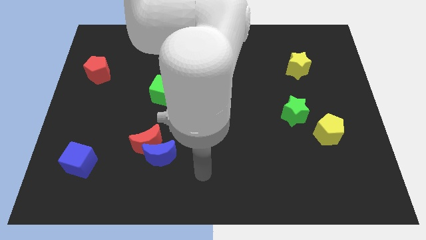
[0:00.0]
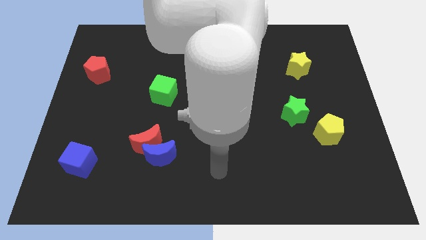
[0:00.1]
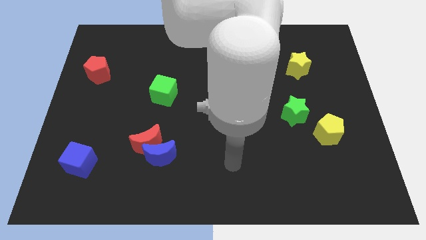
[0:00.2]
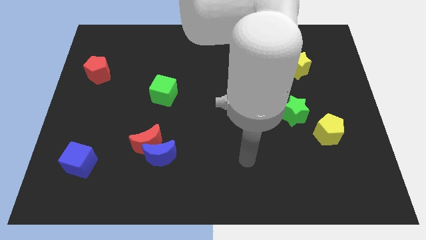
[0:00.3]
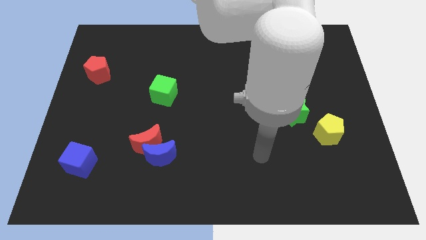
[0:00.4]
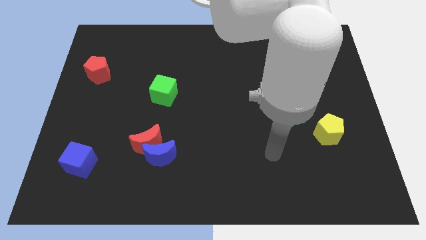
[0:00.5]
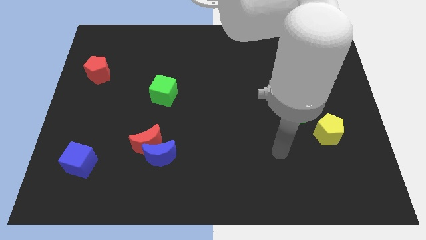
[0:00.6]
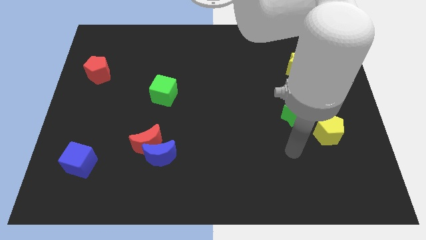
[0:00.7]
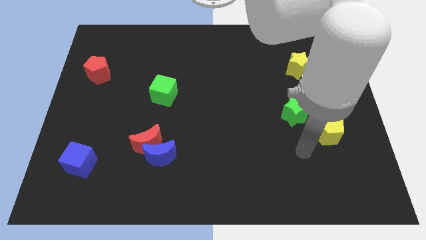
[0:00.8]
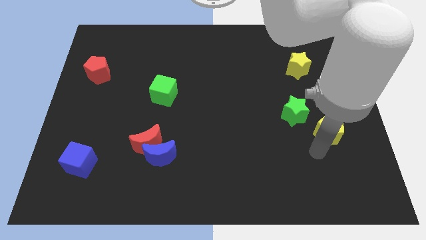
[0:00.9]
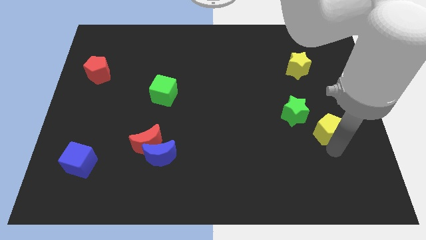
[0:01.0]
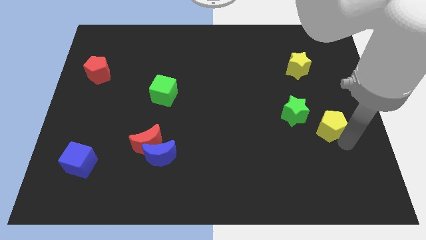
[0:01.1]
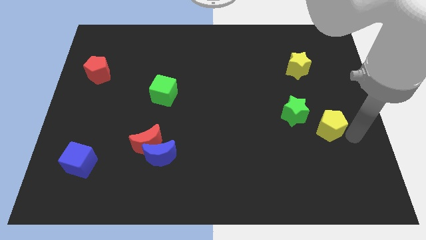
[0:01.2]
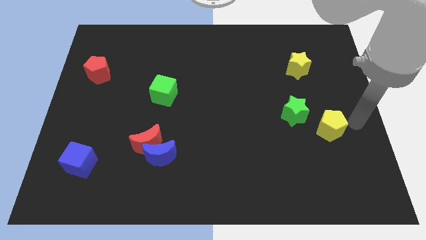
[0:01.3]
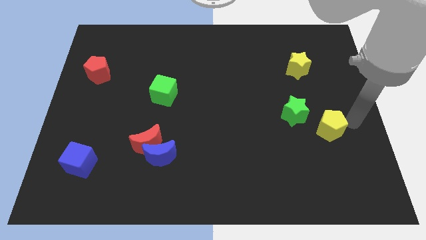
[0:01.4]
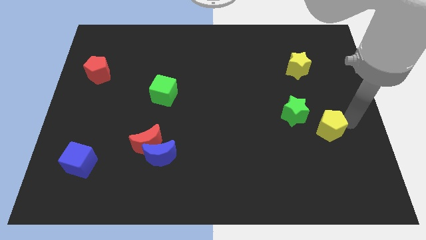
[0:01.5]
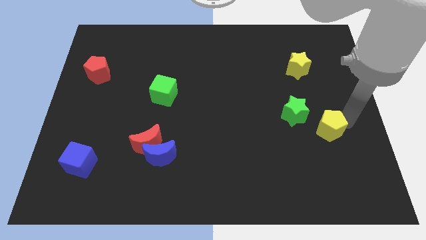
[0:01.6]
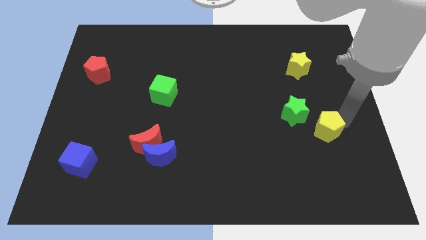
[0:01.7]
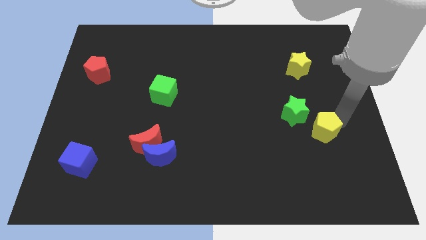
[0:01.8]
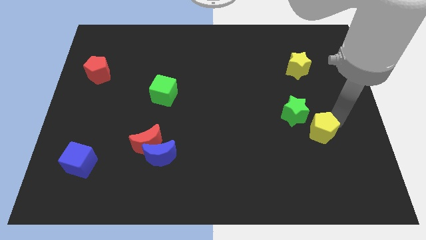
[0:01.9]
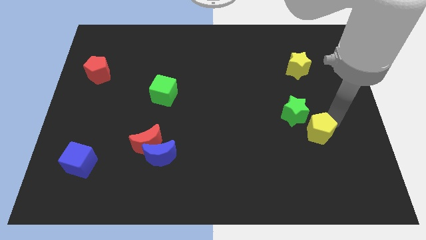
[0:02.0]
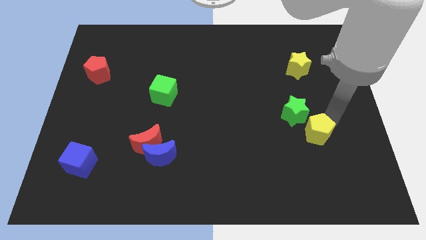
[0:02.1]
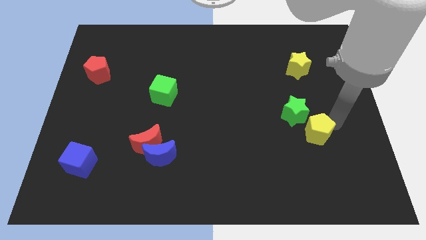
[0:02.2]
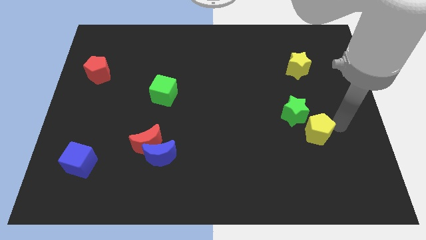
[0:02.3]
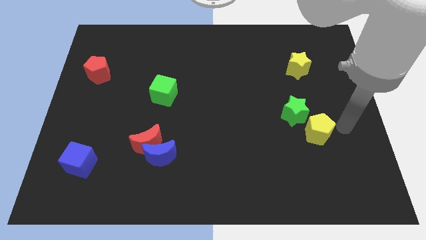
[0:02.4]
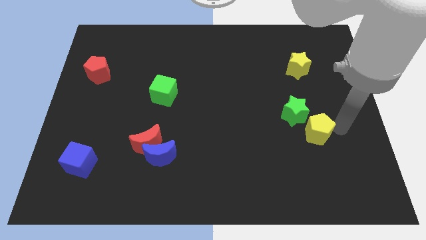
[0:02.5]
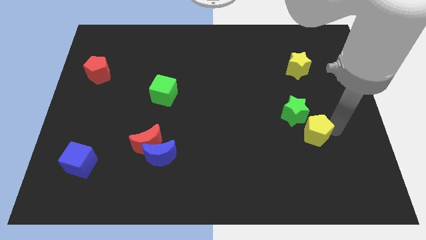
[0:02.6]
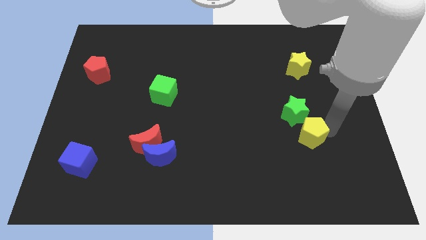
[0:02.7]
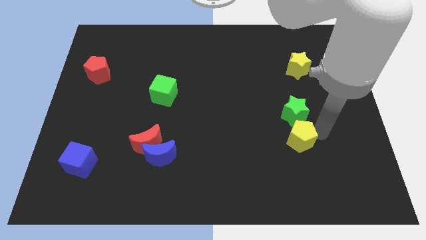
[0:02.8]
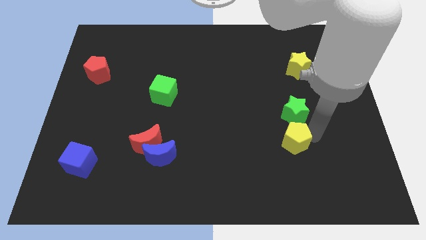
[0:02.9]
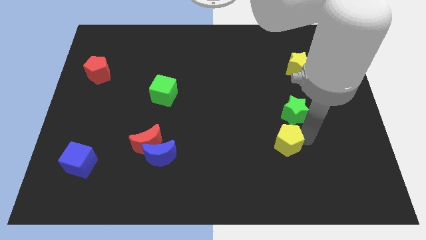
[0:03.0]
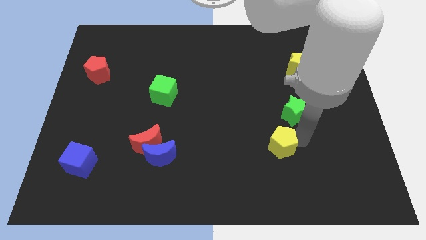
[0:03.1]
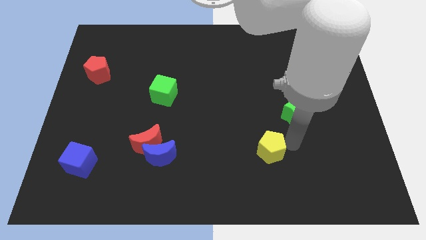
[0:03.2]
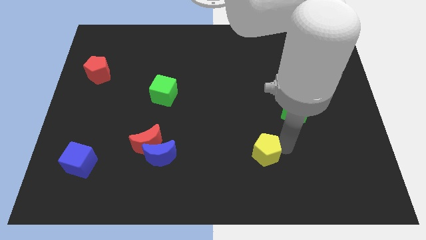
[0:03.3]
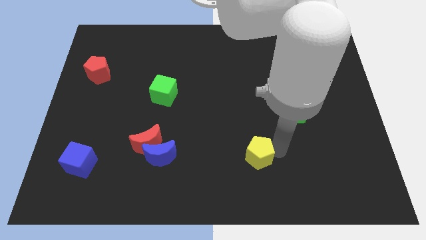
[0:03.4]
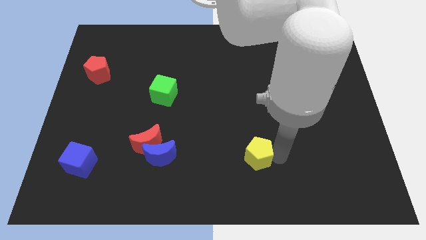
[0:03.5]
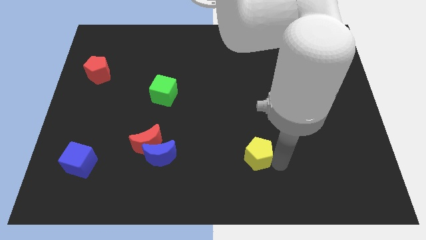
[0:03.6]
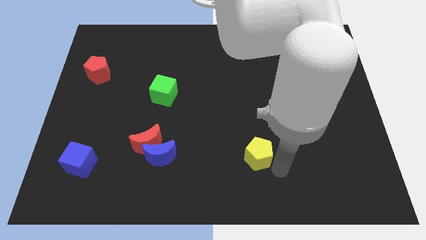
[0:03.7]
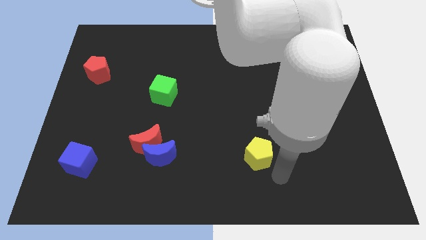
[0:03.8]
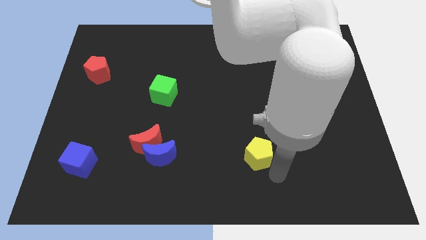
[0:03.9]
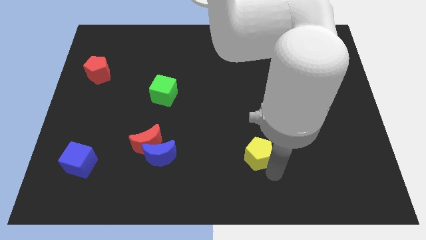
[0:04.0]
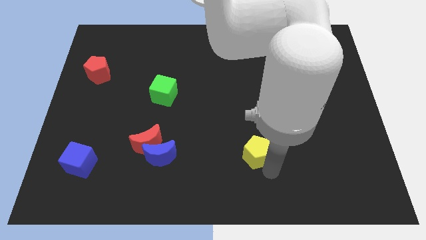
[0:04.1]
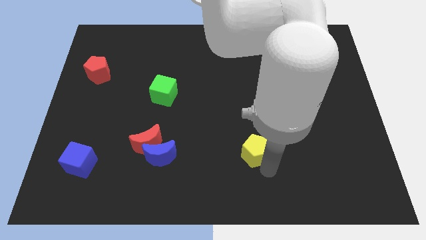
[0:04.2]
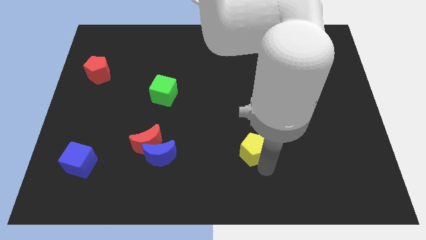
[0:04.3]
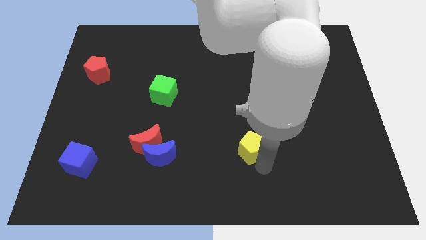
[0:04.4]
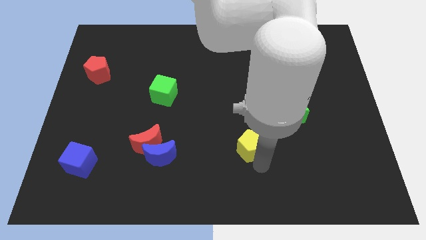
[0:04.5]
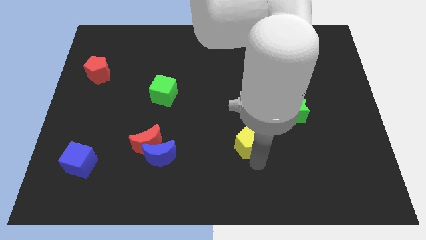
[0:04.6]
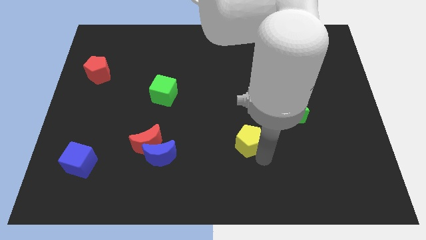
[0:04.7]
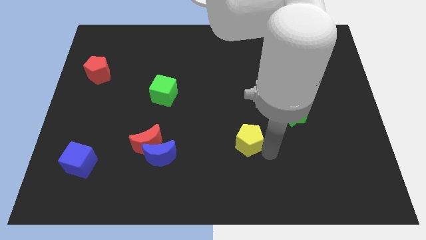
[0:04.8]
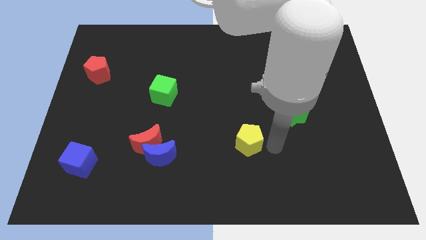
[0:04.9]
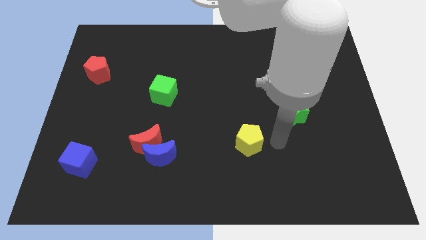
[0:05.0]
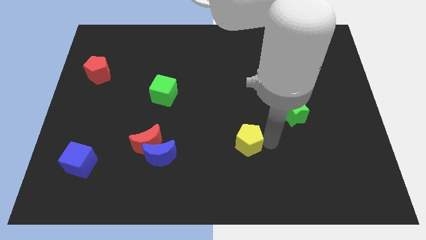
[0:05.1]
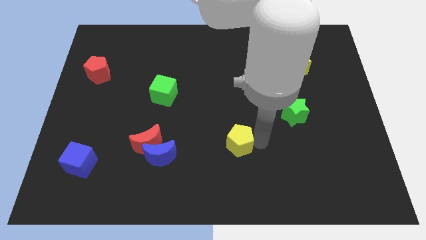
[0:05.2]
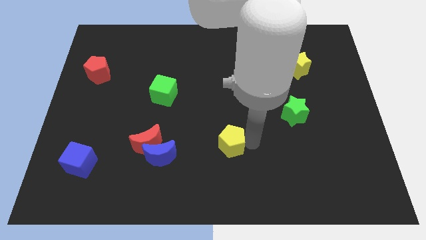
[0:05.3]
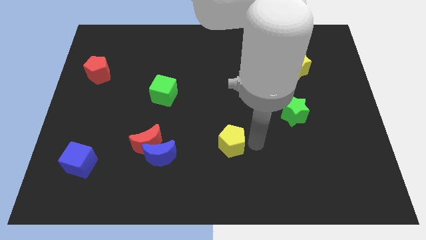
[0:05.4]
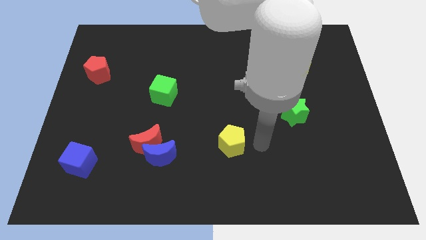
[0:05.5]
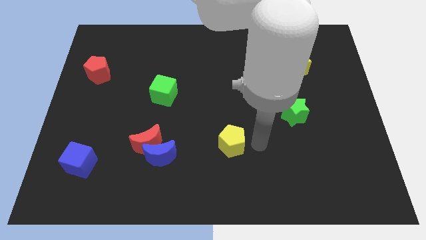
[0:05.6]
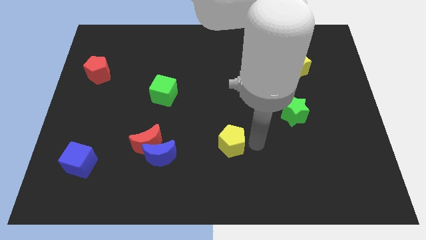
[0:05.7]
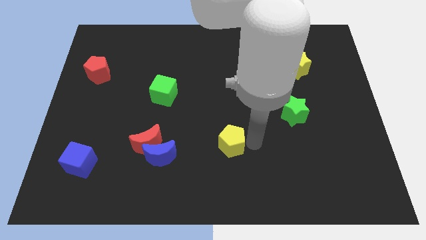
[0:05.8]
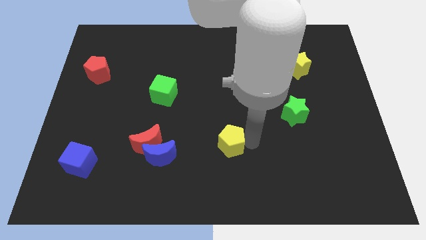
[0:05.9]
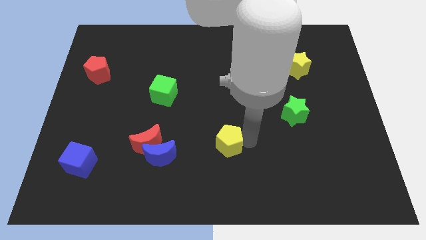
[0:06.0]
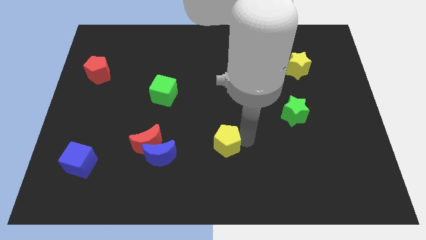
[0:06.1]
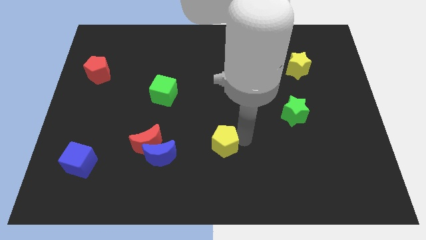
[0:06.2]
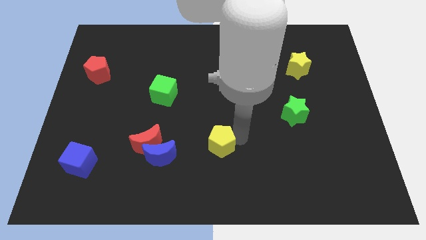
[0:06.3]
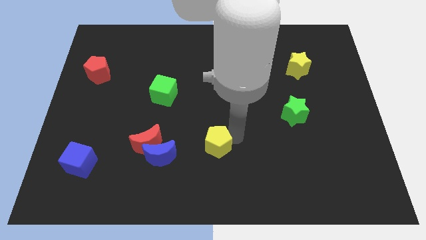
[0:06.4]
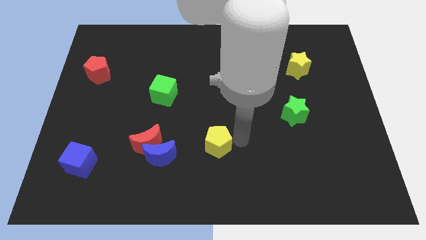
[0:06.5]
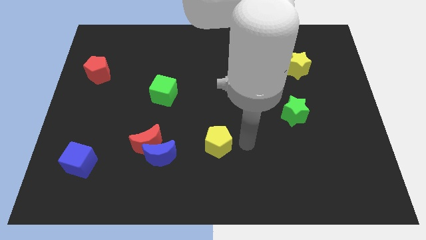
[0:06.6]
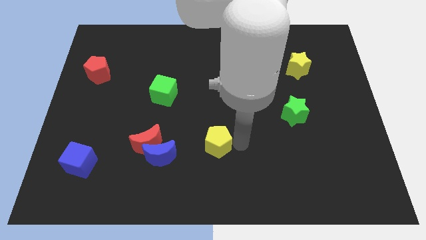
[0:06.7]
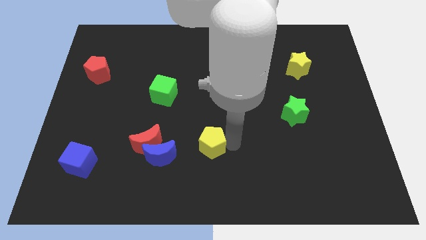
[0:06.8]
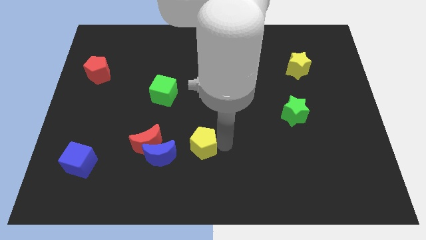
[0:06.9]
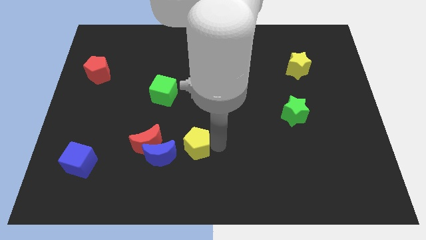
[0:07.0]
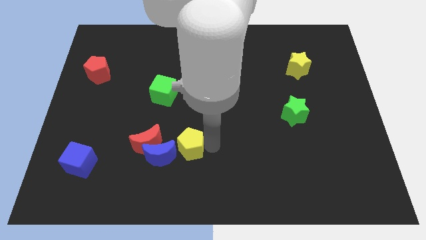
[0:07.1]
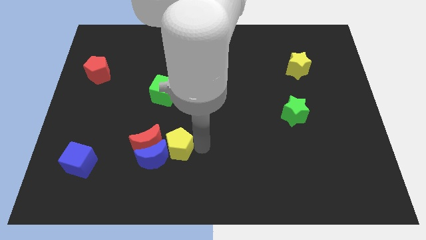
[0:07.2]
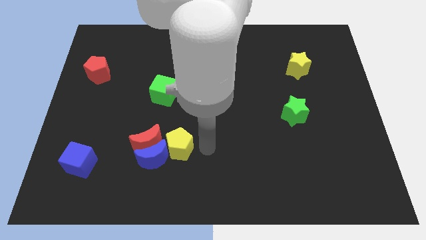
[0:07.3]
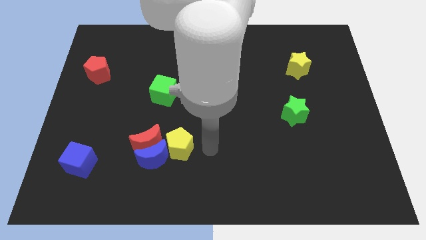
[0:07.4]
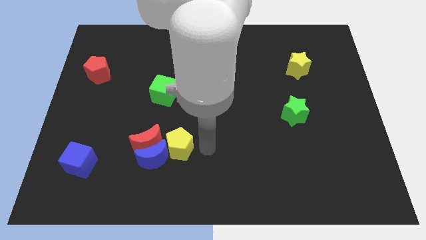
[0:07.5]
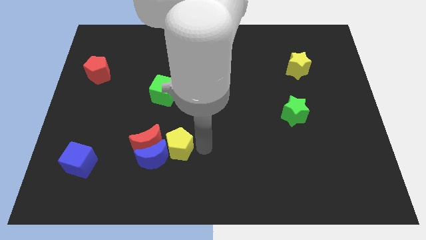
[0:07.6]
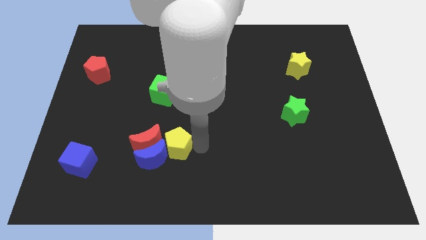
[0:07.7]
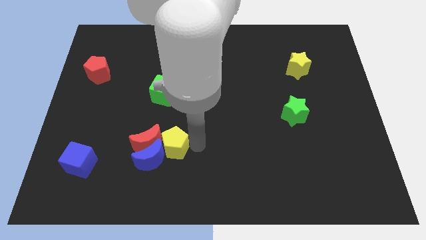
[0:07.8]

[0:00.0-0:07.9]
move the yellow pentagon next to the red moon

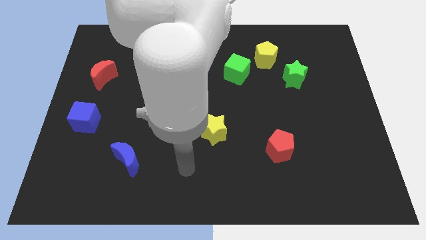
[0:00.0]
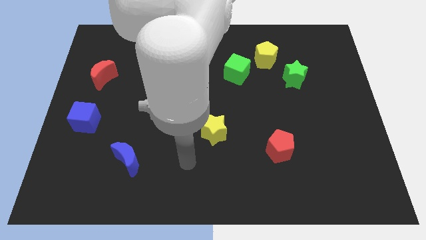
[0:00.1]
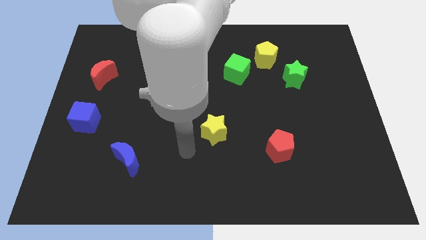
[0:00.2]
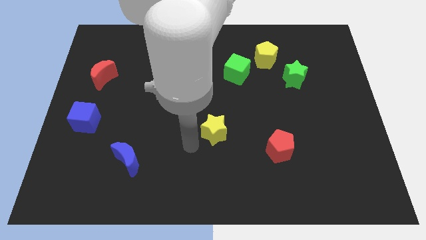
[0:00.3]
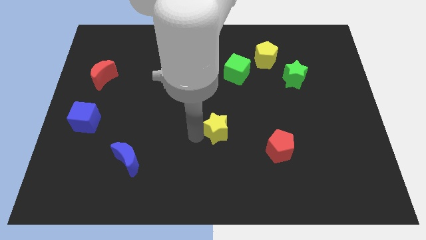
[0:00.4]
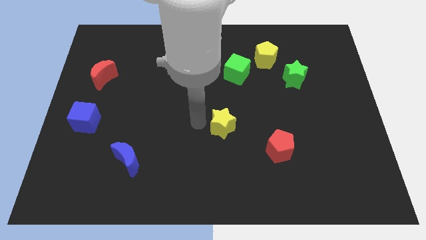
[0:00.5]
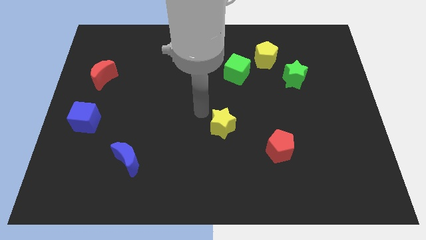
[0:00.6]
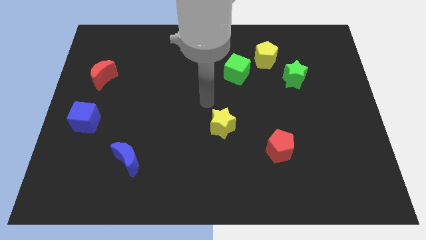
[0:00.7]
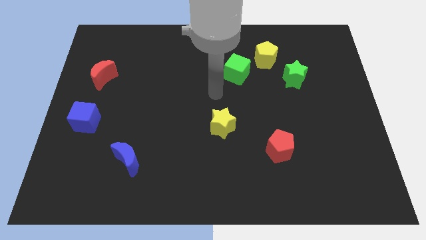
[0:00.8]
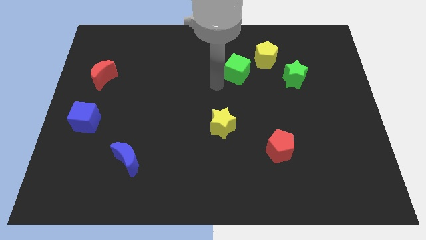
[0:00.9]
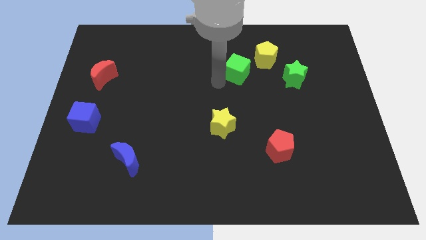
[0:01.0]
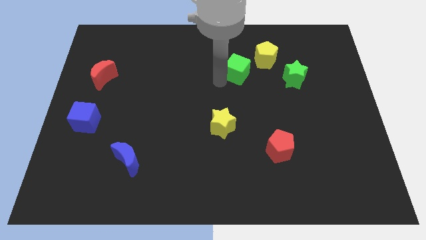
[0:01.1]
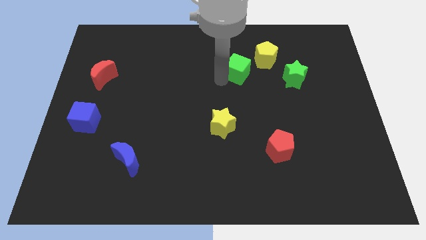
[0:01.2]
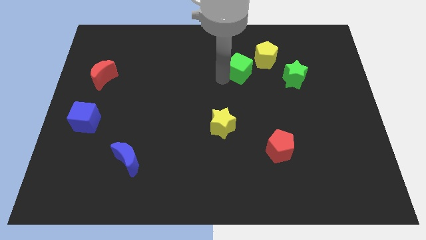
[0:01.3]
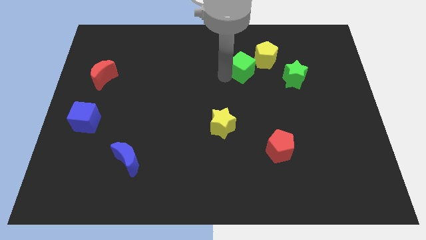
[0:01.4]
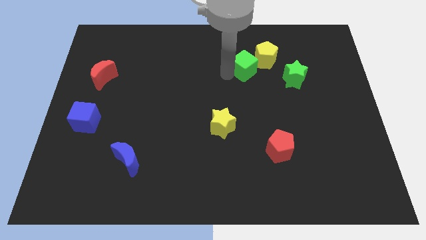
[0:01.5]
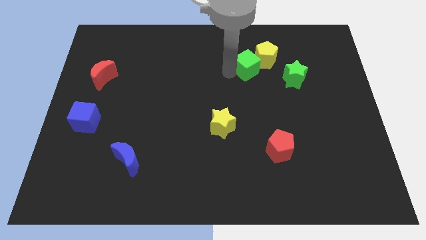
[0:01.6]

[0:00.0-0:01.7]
move the green cube close to the yellow pentagon
